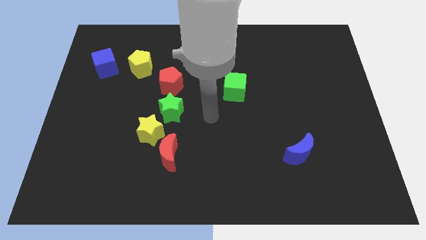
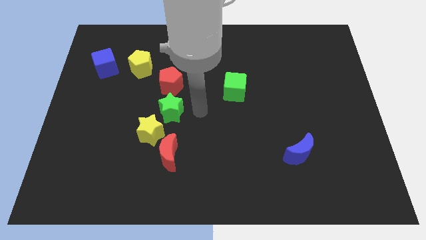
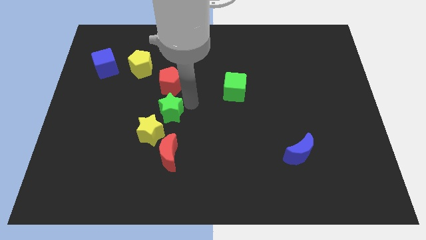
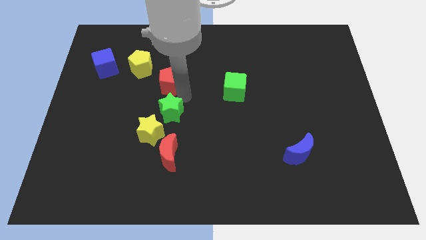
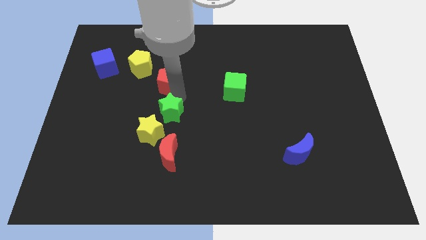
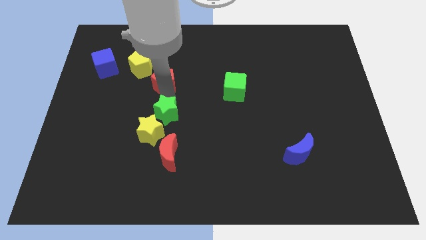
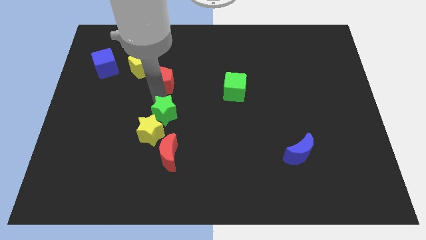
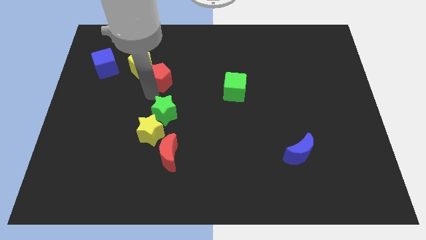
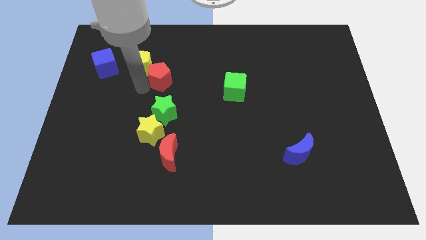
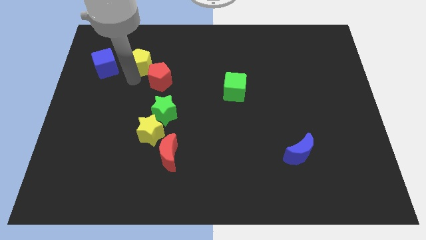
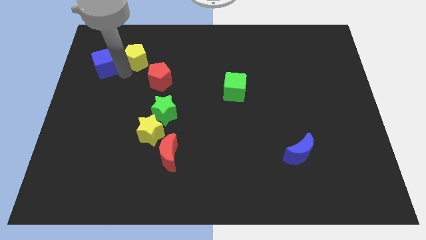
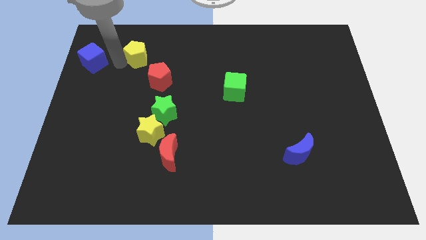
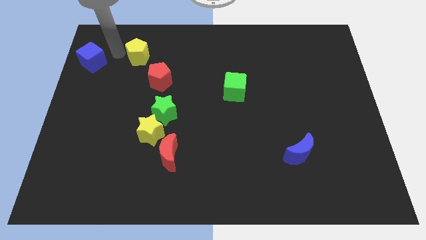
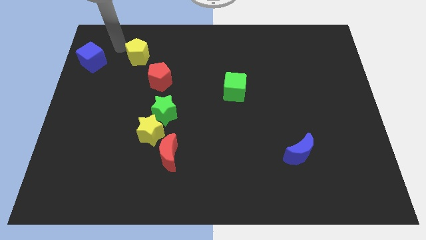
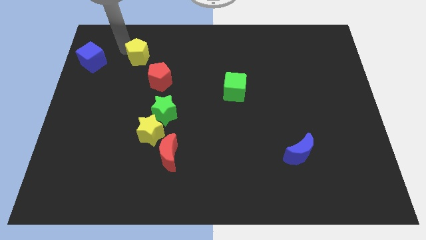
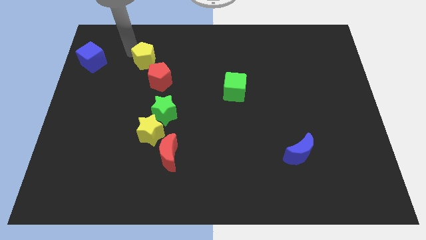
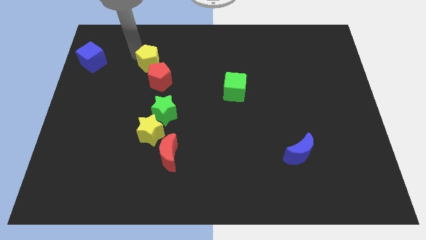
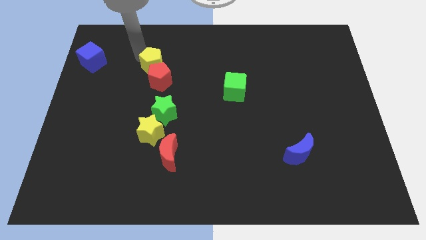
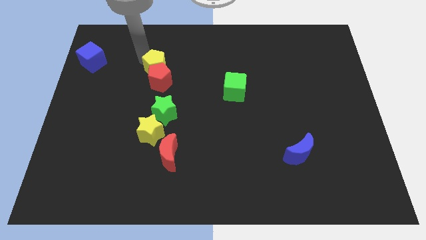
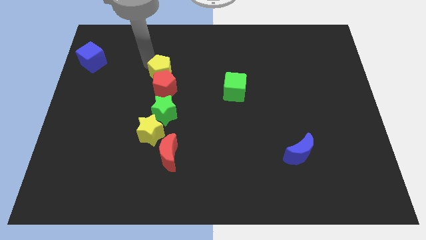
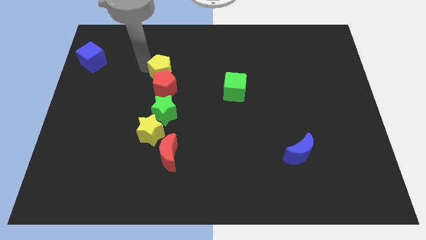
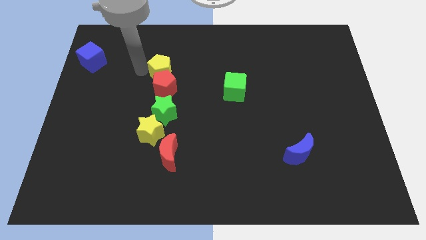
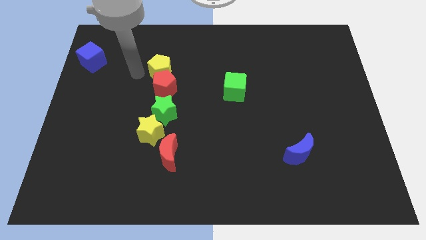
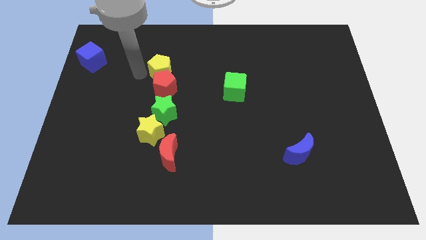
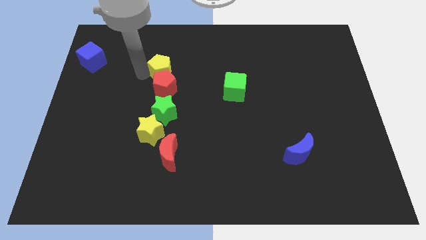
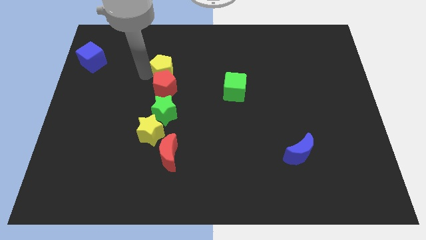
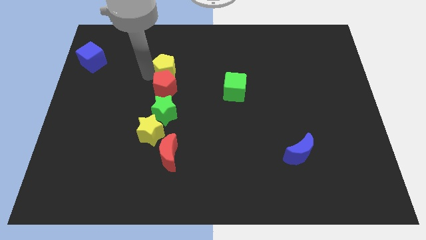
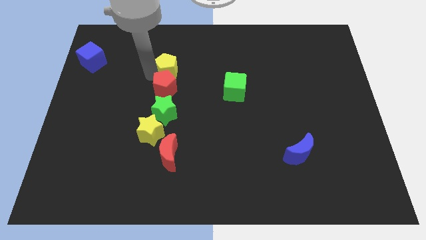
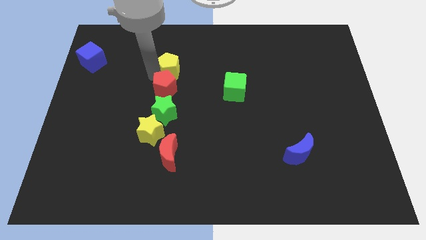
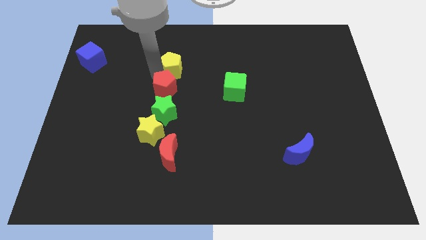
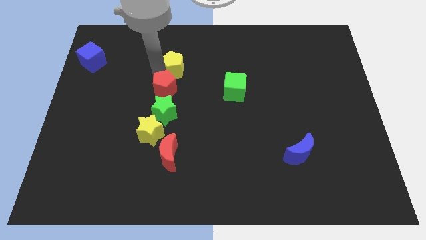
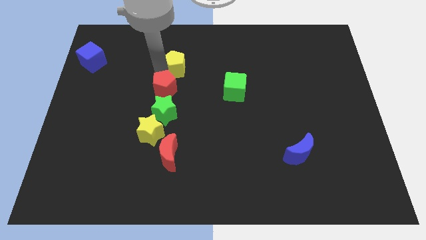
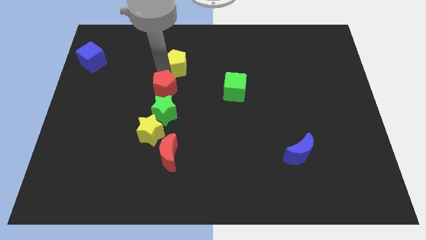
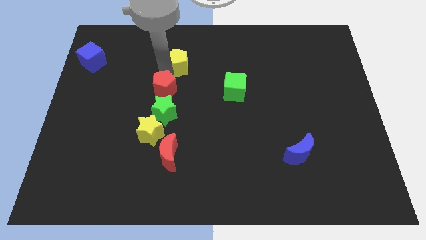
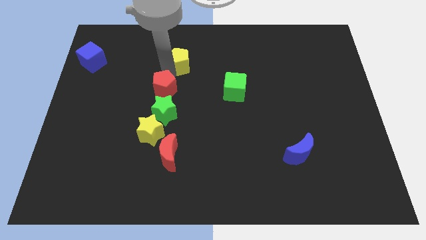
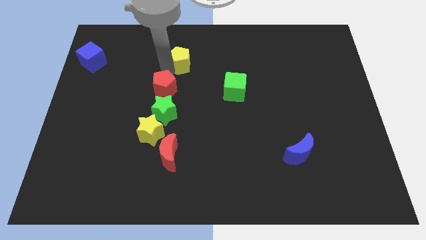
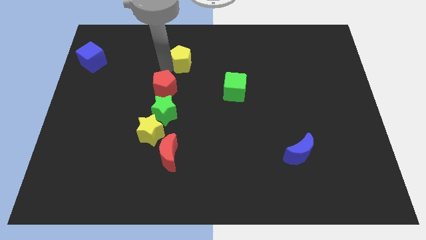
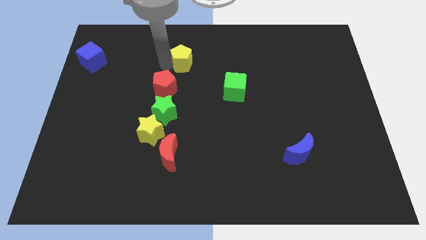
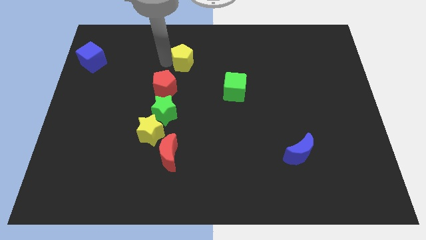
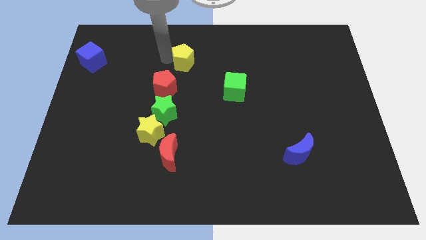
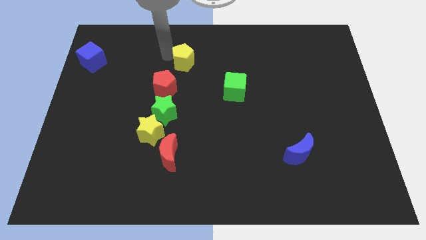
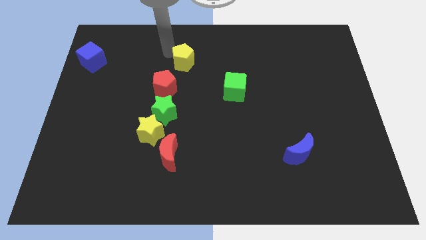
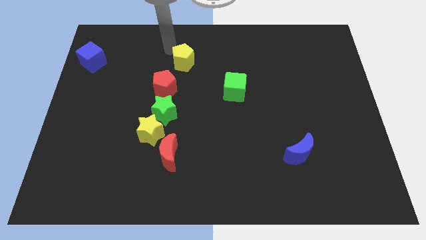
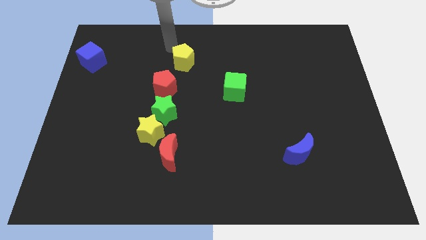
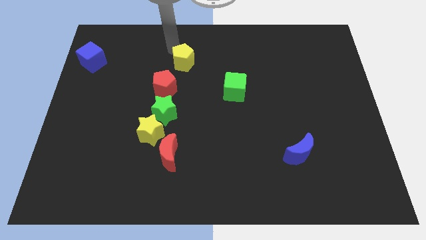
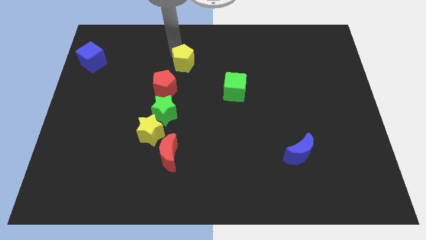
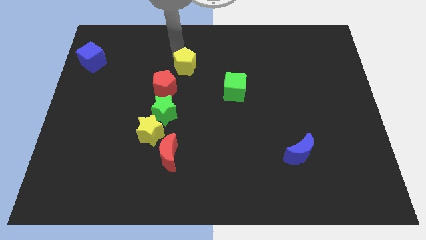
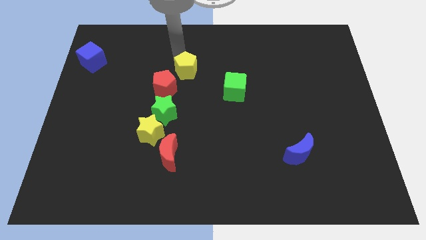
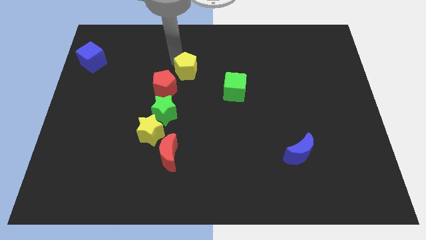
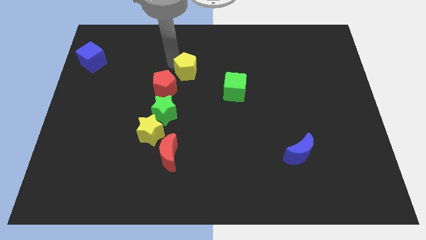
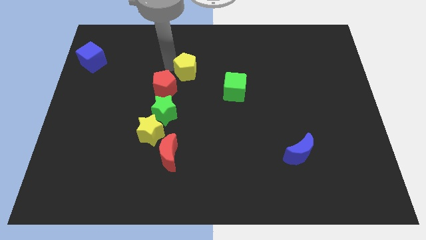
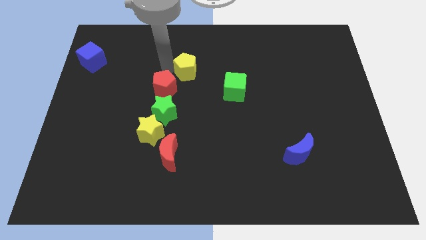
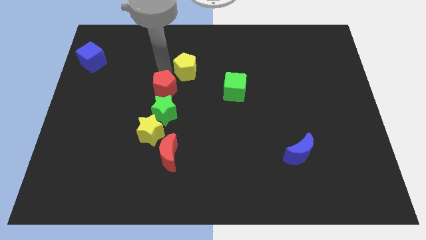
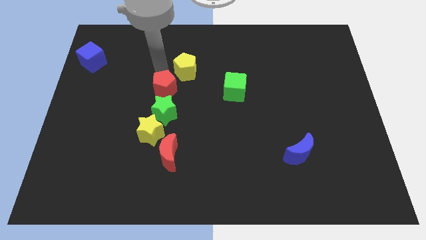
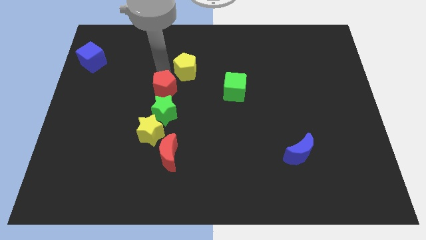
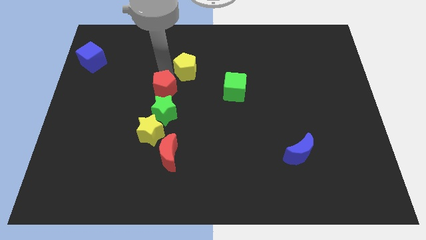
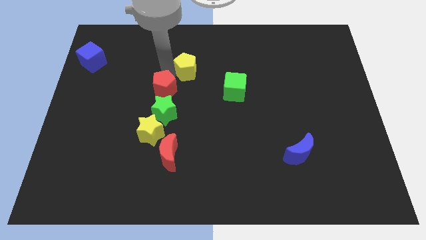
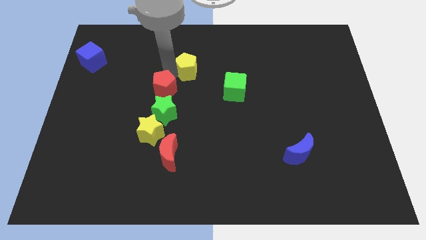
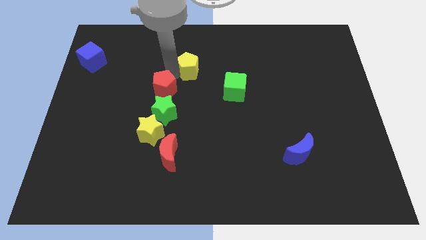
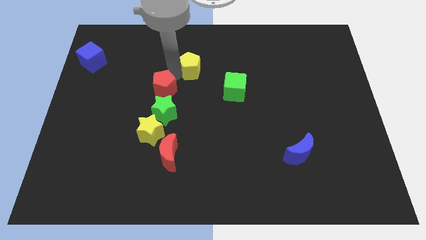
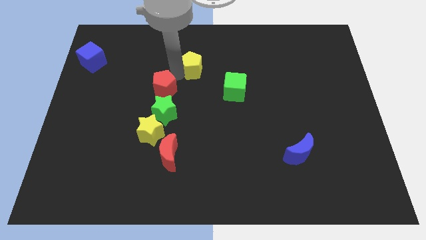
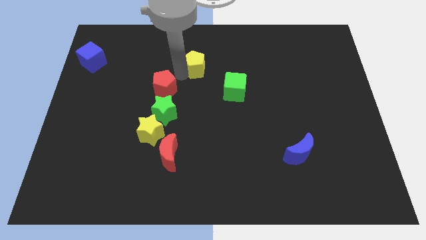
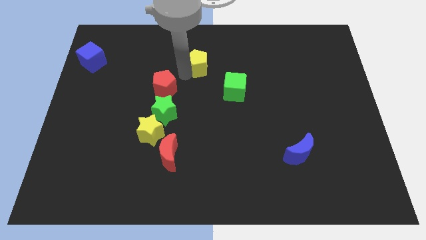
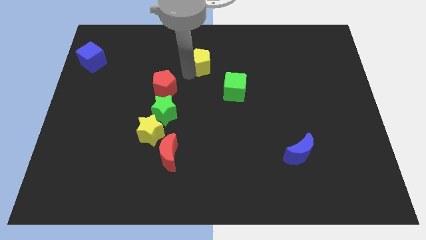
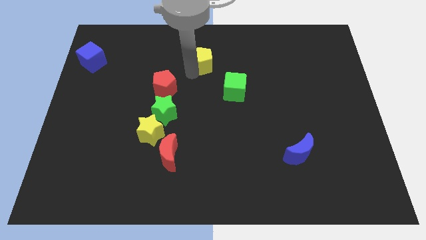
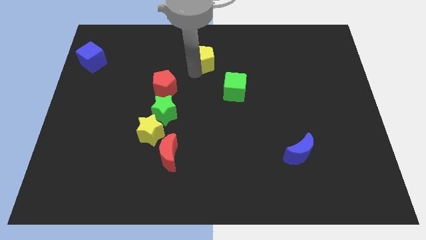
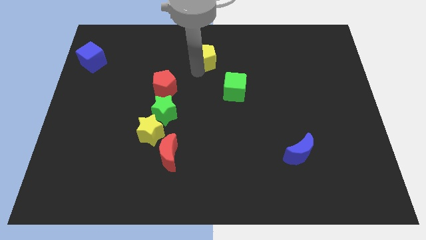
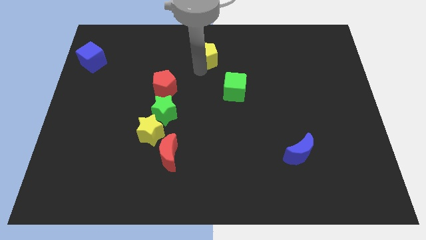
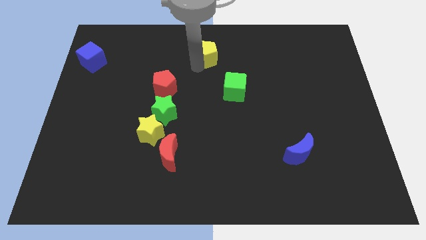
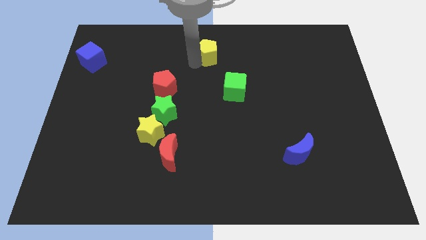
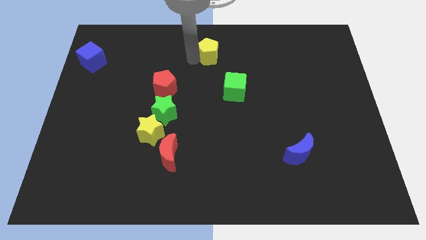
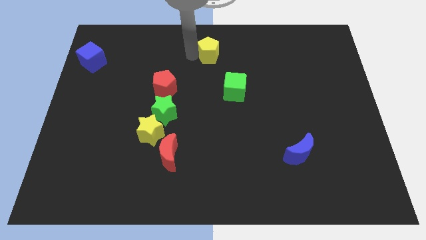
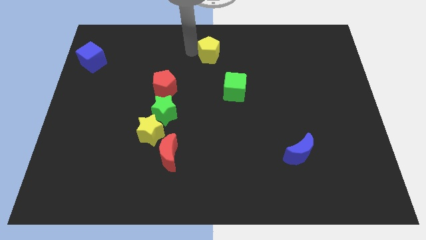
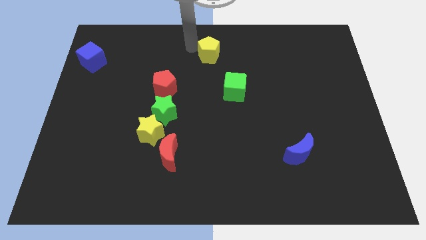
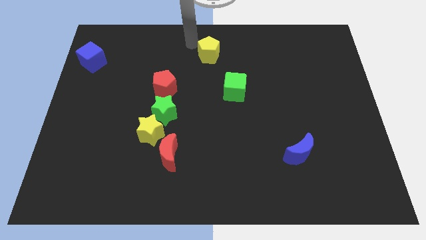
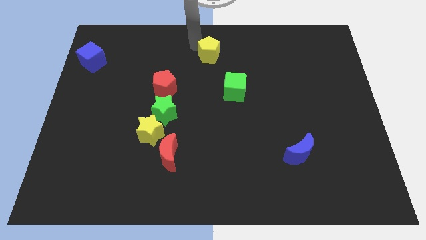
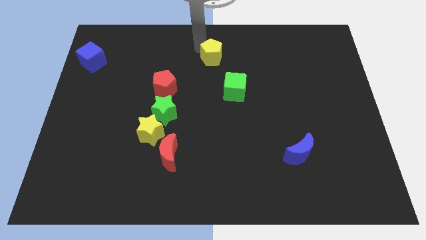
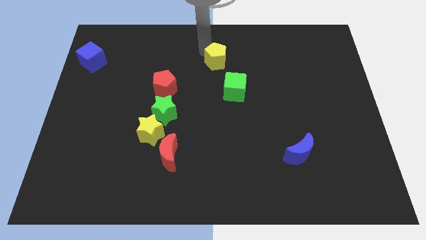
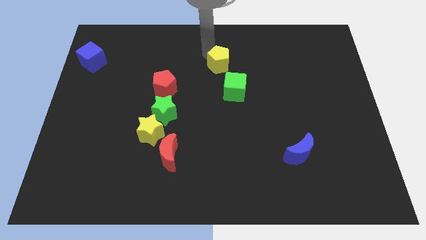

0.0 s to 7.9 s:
slide the yellow pentagon to the right
